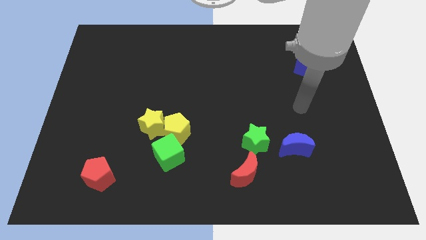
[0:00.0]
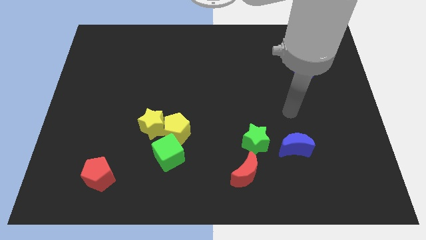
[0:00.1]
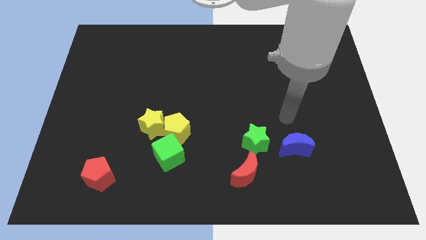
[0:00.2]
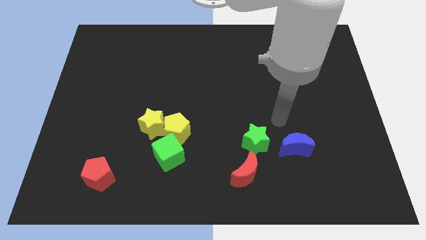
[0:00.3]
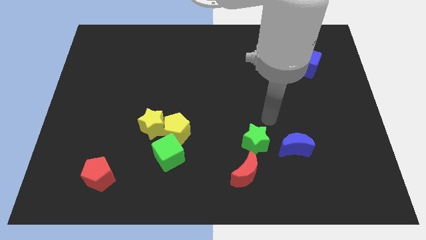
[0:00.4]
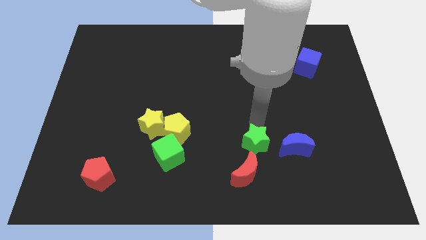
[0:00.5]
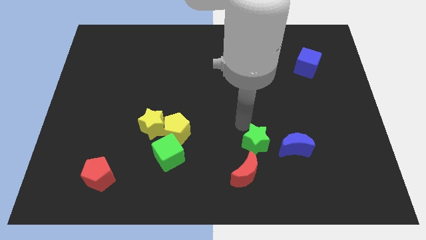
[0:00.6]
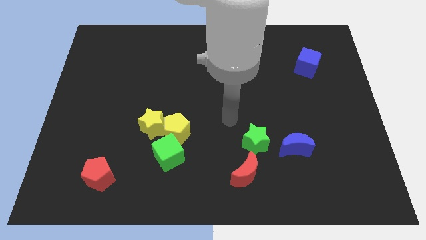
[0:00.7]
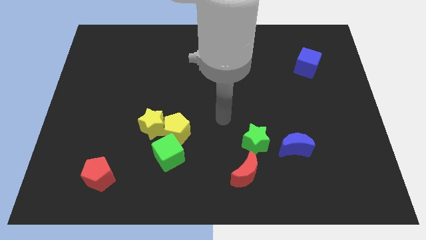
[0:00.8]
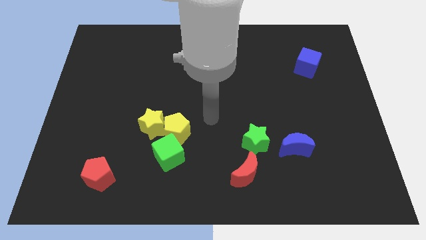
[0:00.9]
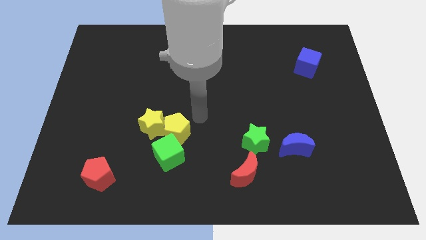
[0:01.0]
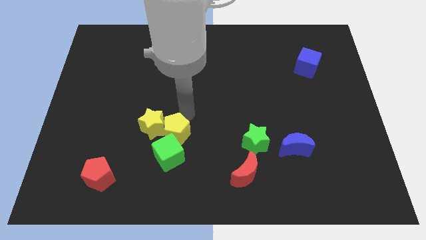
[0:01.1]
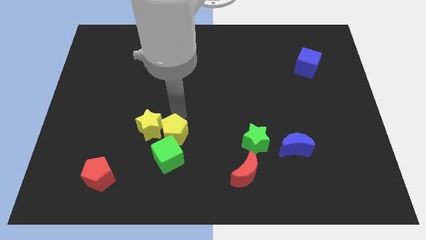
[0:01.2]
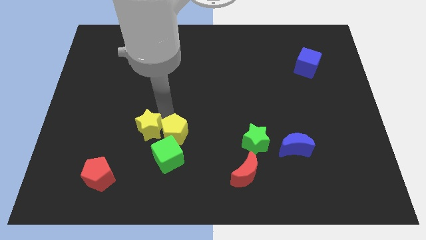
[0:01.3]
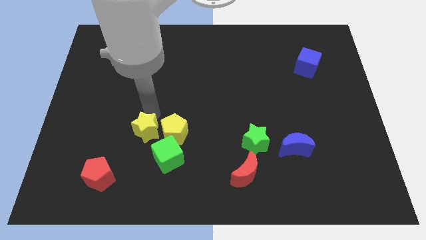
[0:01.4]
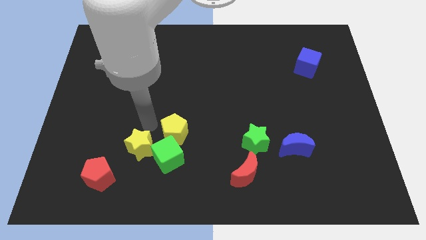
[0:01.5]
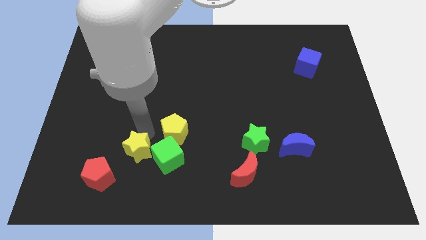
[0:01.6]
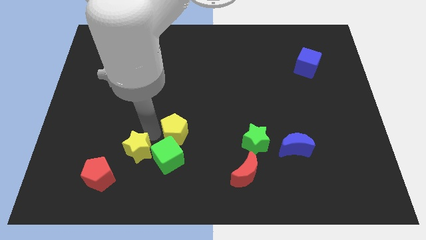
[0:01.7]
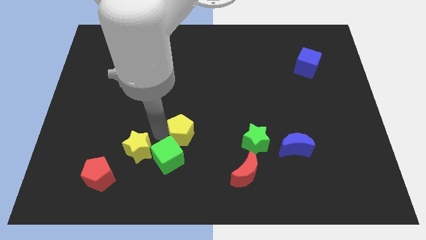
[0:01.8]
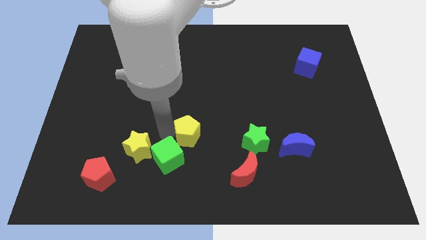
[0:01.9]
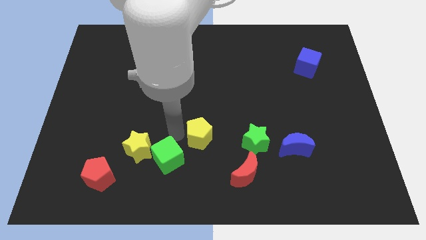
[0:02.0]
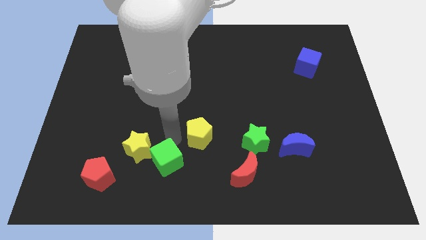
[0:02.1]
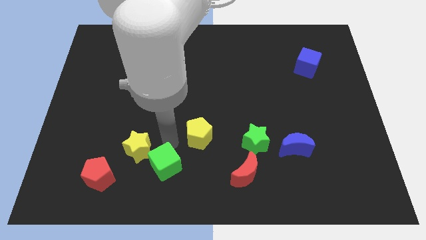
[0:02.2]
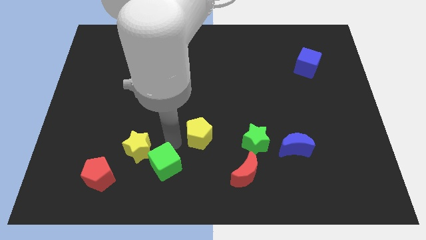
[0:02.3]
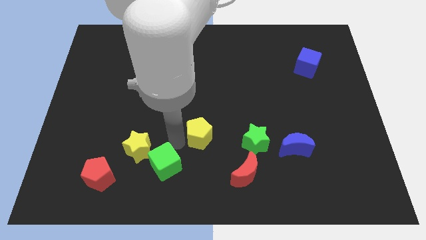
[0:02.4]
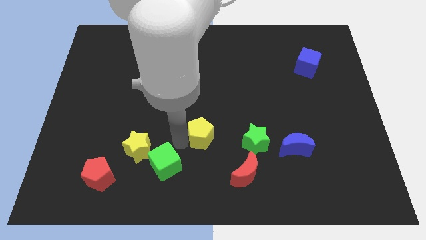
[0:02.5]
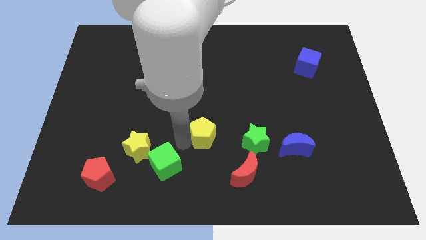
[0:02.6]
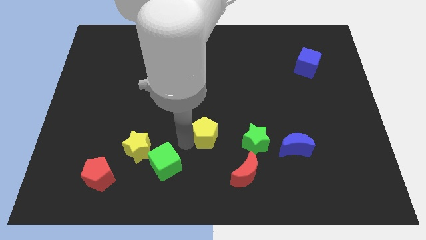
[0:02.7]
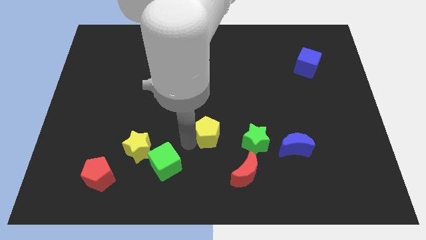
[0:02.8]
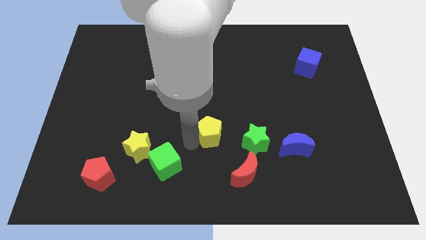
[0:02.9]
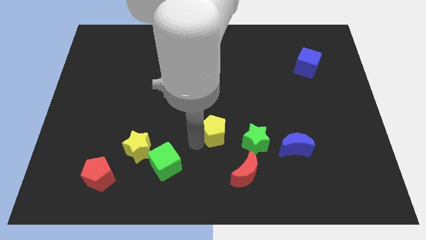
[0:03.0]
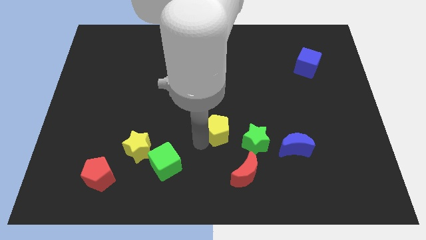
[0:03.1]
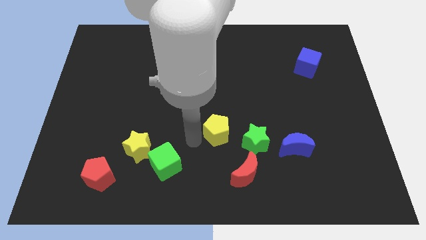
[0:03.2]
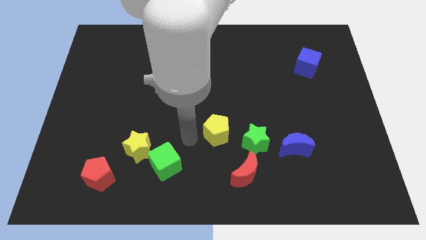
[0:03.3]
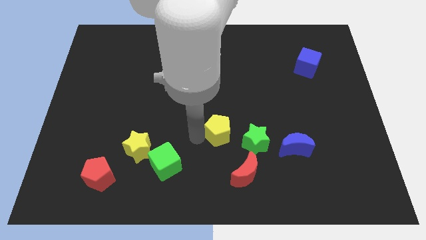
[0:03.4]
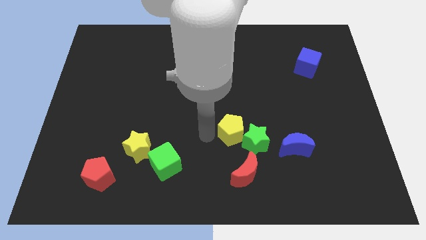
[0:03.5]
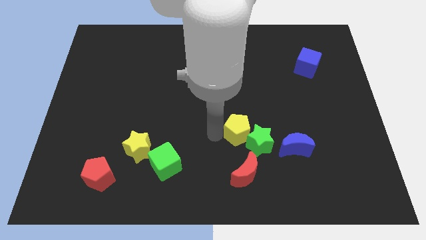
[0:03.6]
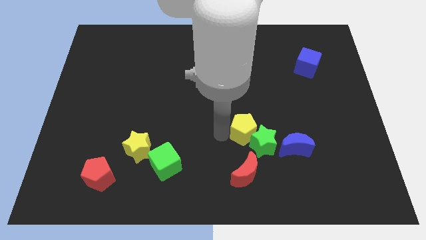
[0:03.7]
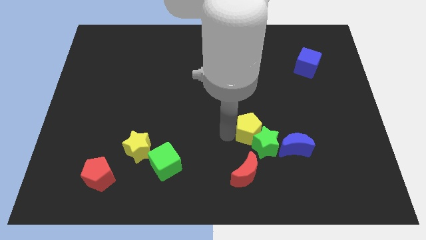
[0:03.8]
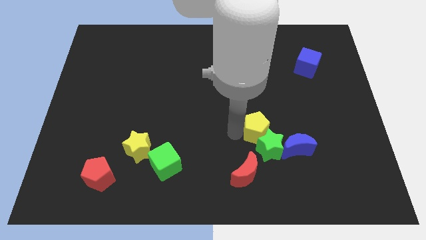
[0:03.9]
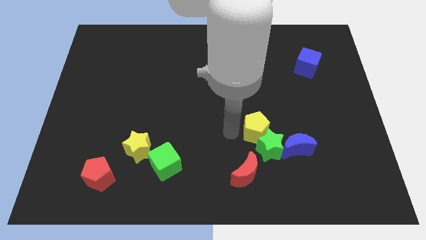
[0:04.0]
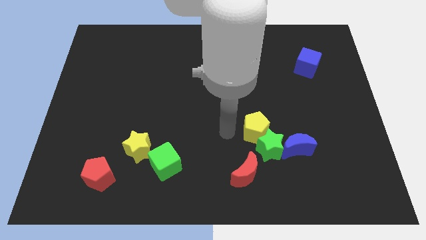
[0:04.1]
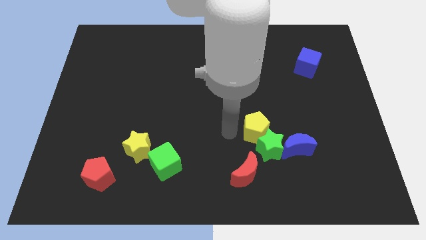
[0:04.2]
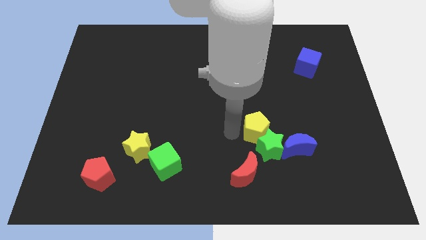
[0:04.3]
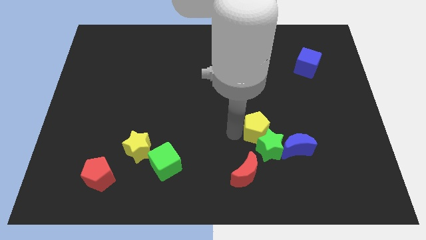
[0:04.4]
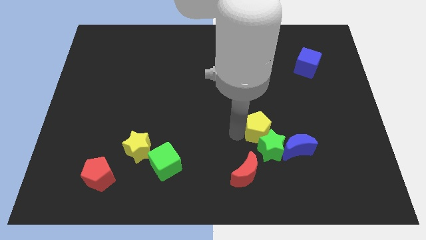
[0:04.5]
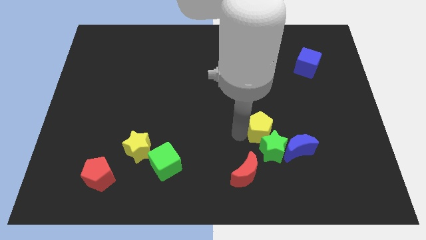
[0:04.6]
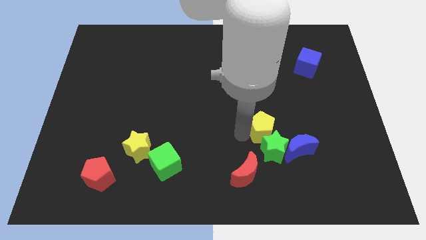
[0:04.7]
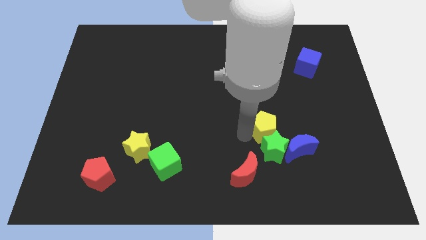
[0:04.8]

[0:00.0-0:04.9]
slide the yellow pentagon to the right

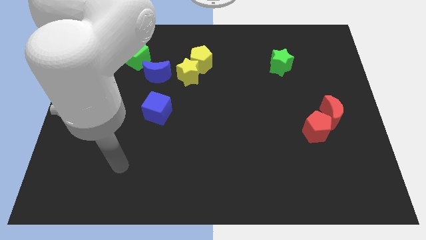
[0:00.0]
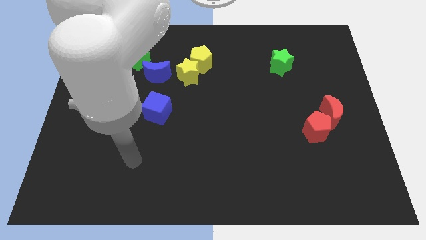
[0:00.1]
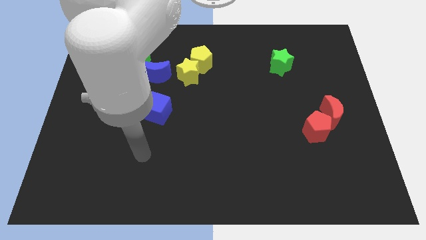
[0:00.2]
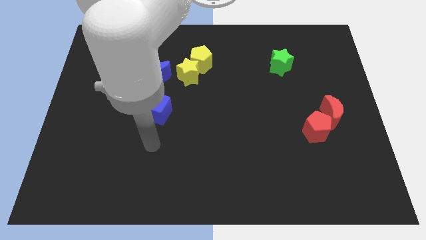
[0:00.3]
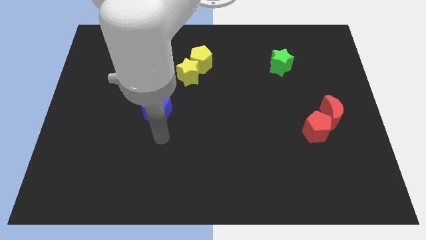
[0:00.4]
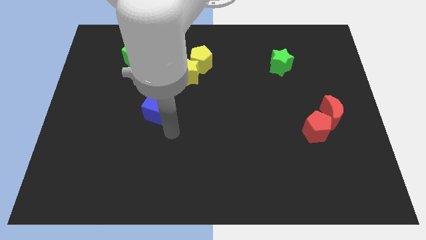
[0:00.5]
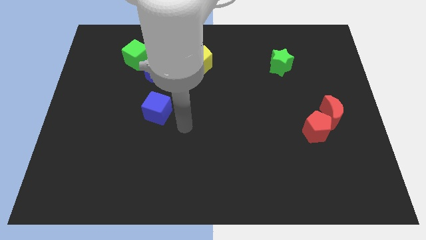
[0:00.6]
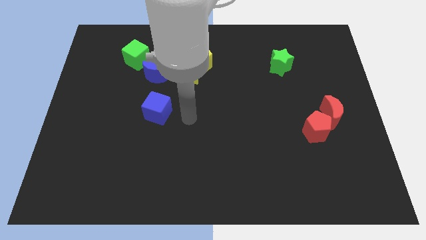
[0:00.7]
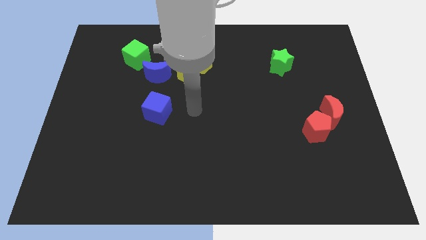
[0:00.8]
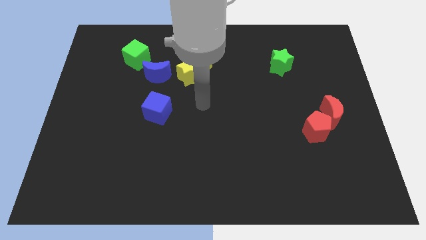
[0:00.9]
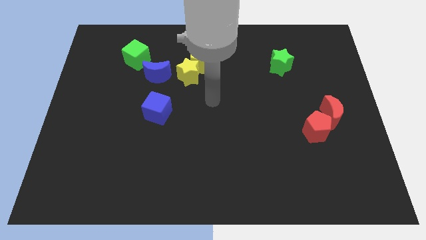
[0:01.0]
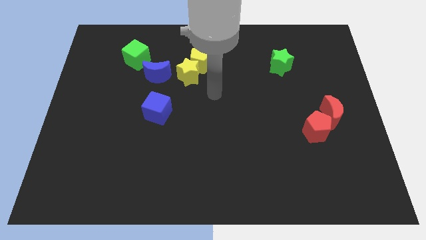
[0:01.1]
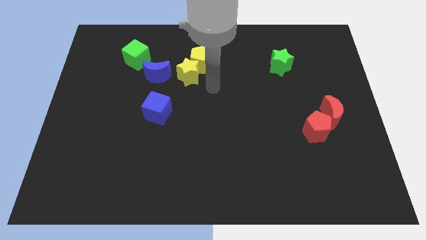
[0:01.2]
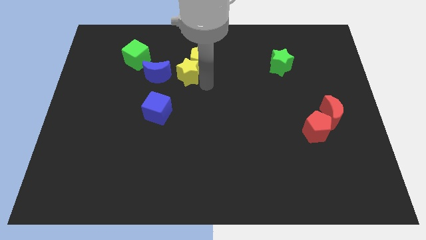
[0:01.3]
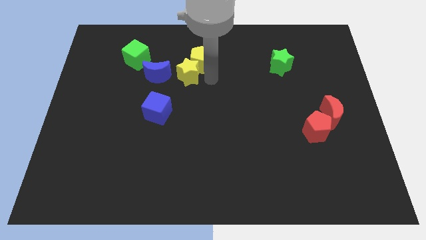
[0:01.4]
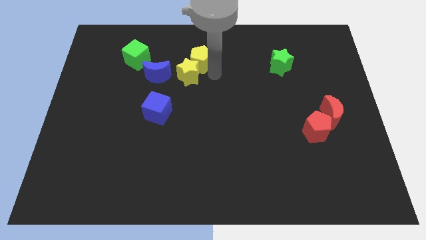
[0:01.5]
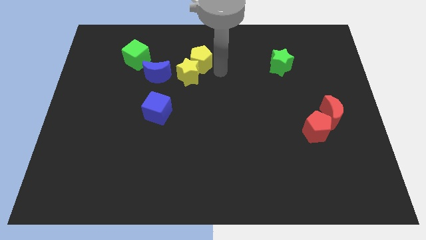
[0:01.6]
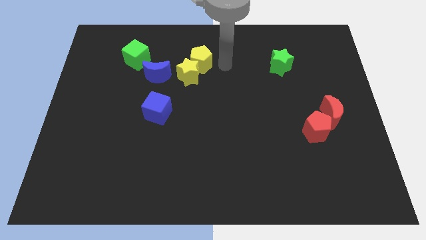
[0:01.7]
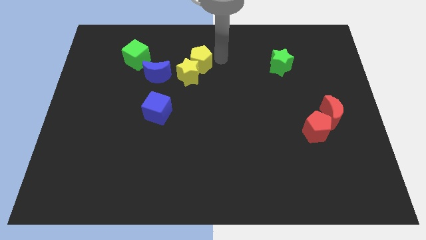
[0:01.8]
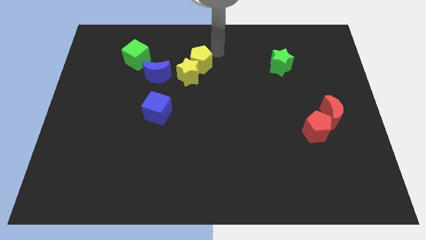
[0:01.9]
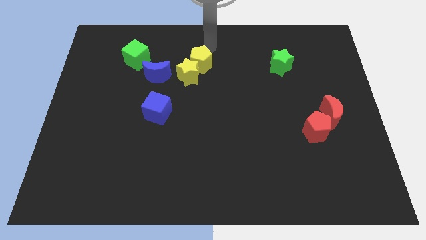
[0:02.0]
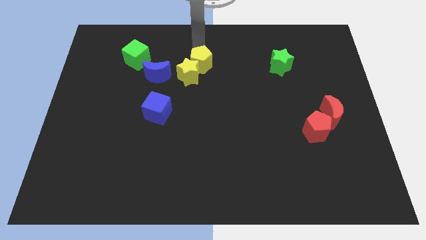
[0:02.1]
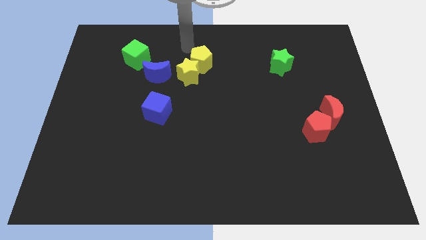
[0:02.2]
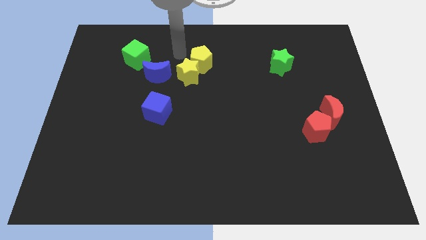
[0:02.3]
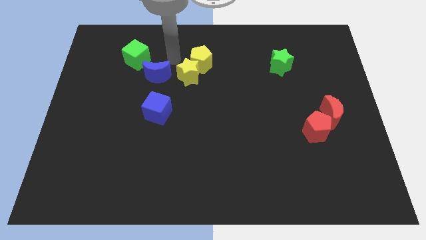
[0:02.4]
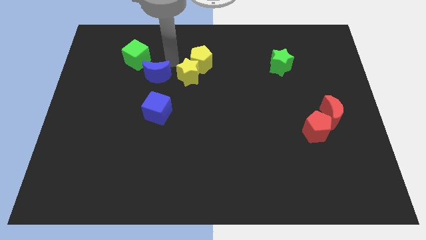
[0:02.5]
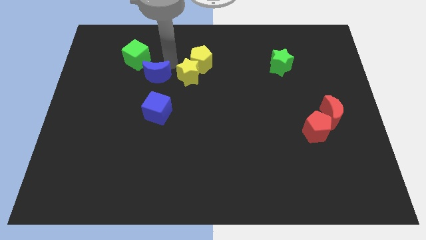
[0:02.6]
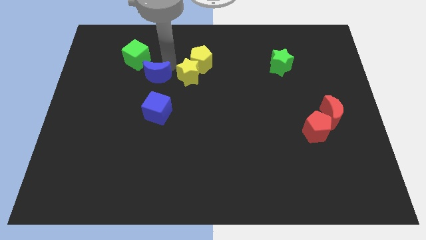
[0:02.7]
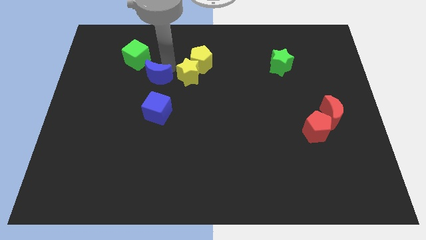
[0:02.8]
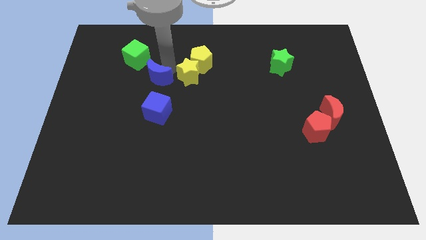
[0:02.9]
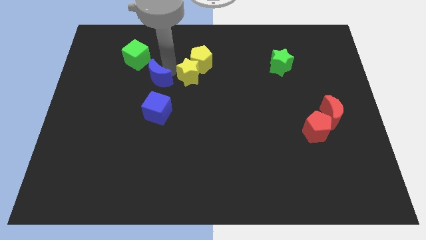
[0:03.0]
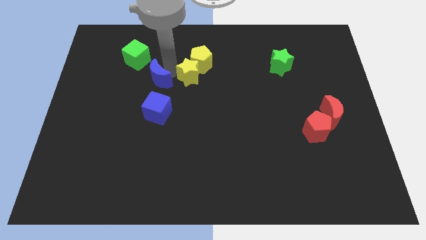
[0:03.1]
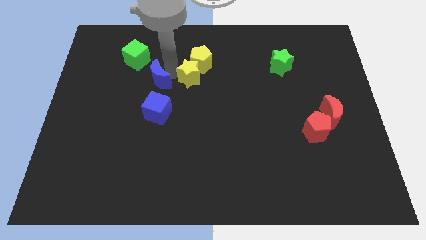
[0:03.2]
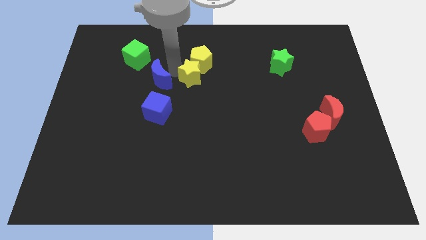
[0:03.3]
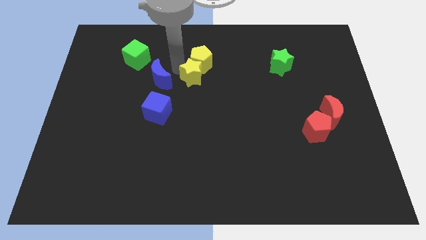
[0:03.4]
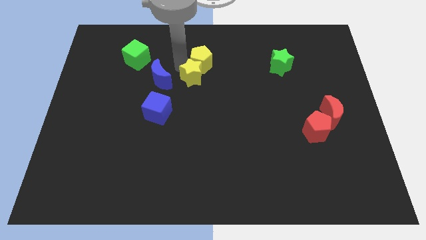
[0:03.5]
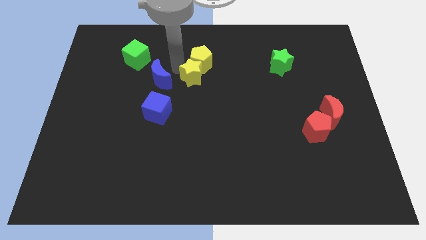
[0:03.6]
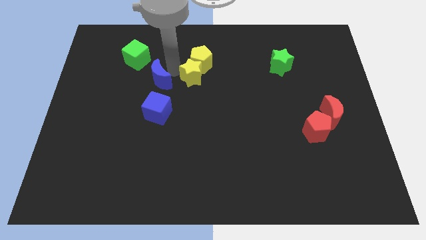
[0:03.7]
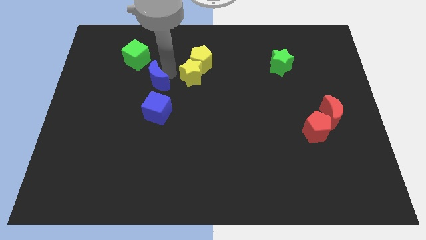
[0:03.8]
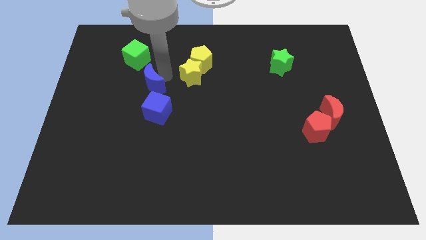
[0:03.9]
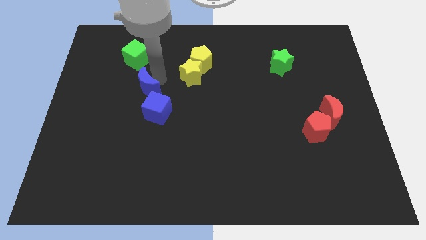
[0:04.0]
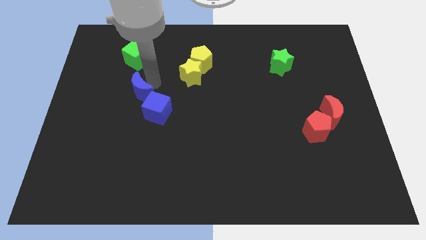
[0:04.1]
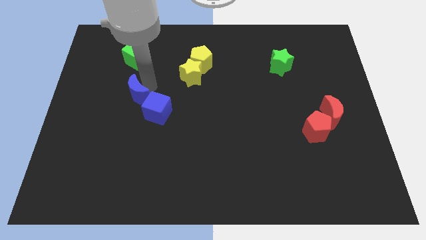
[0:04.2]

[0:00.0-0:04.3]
push the blue moon a little diagonally downwards and to the left
